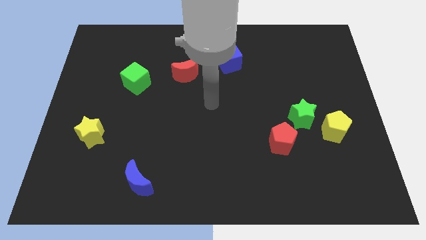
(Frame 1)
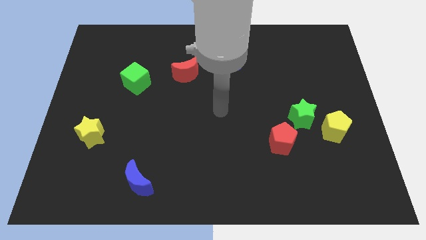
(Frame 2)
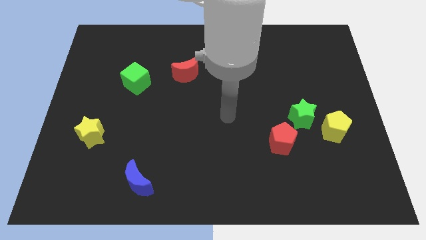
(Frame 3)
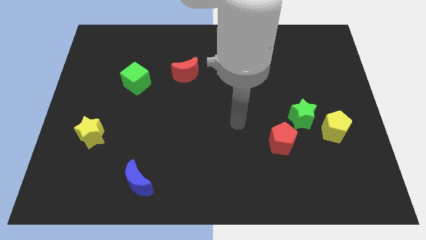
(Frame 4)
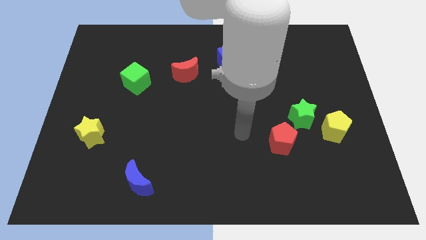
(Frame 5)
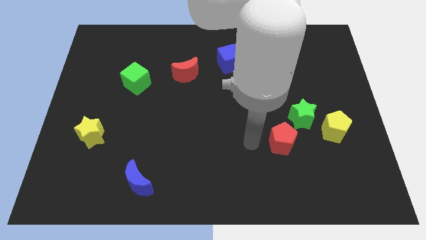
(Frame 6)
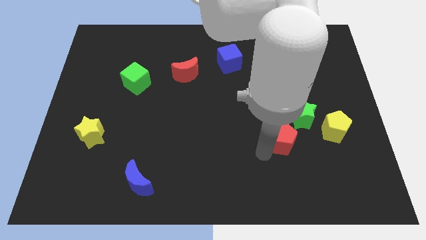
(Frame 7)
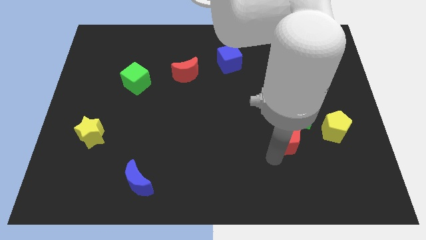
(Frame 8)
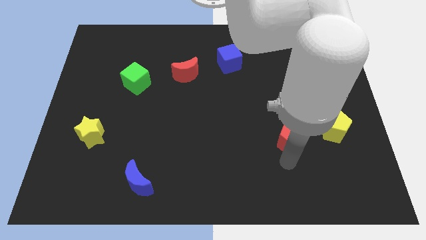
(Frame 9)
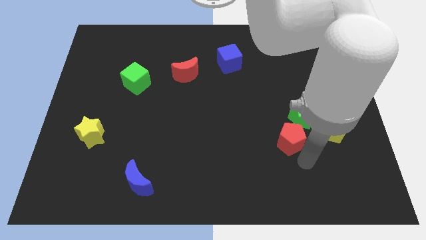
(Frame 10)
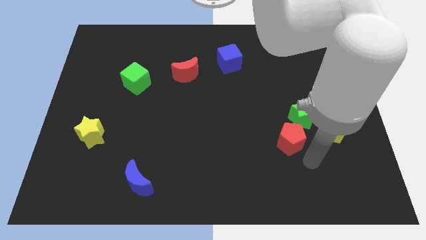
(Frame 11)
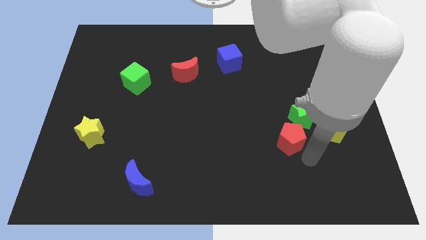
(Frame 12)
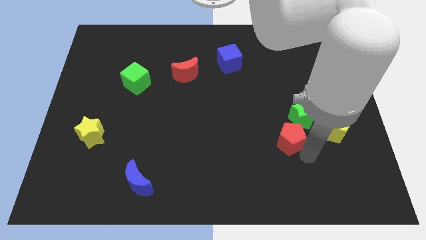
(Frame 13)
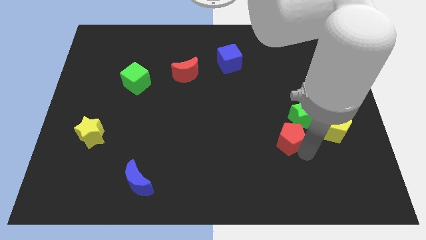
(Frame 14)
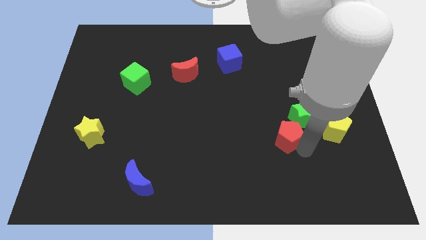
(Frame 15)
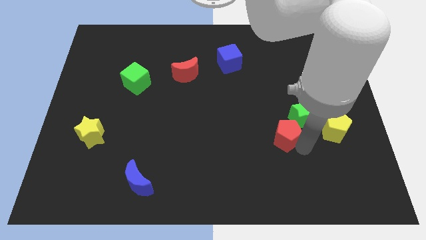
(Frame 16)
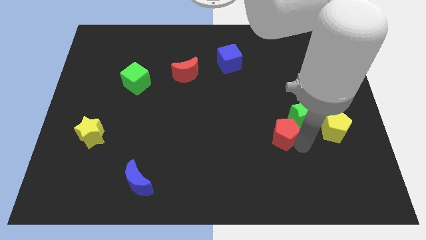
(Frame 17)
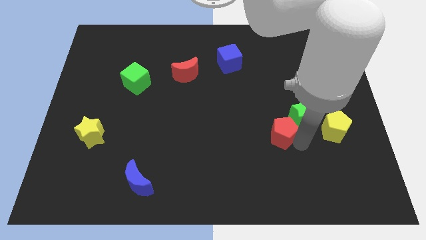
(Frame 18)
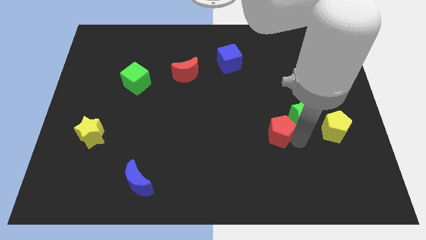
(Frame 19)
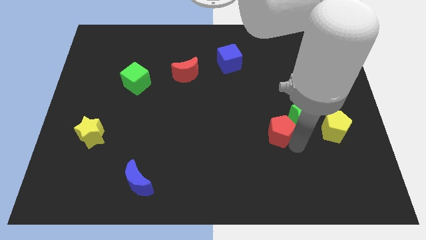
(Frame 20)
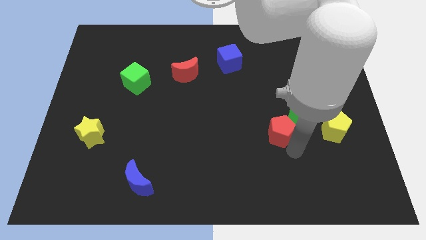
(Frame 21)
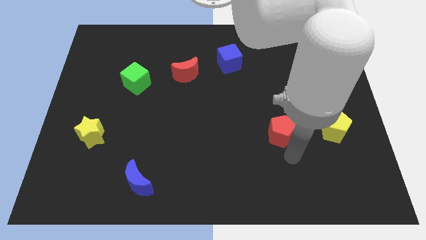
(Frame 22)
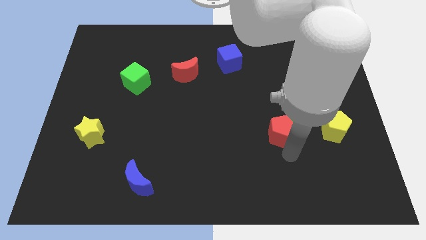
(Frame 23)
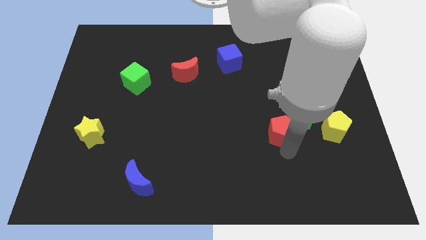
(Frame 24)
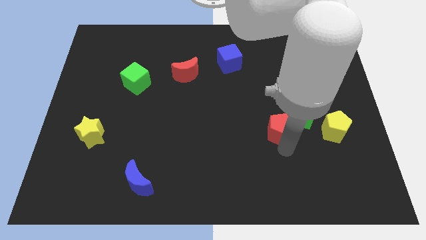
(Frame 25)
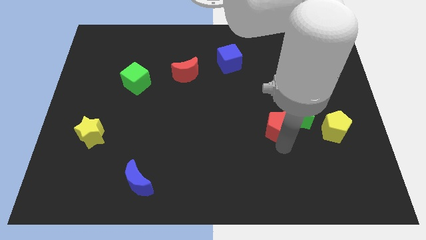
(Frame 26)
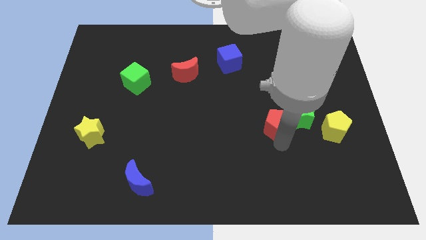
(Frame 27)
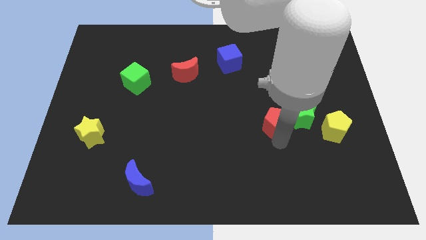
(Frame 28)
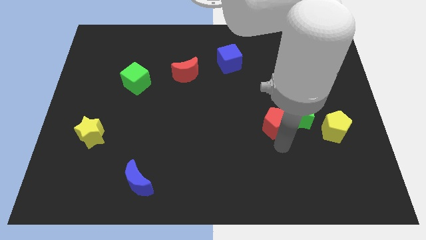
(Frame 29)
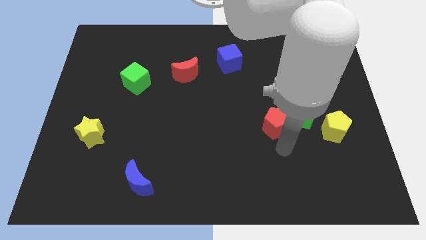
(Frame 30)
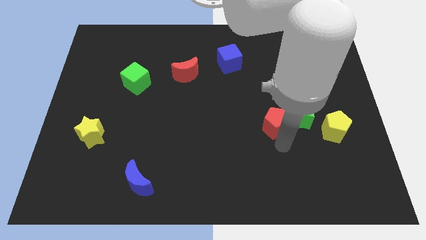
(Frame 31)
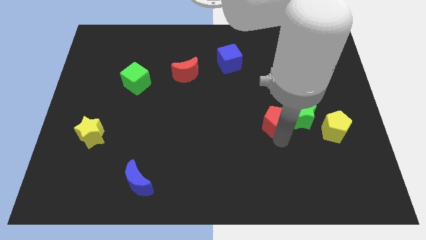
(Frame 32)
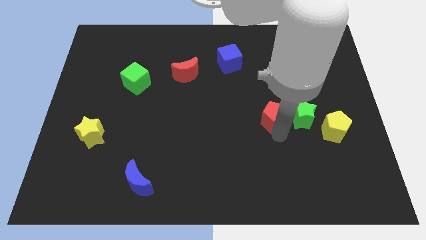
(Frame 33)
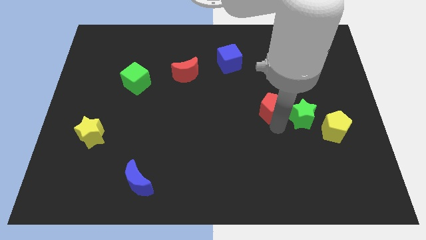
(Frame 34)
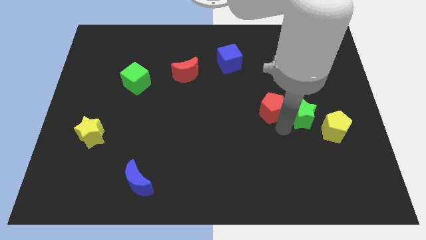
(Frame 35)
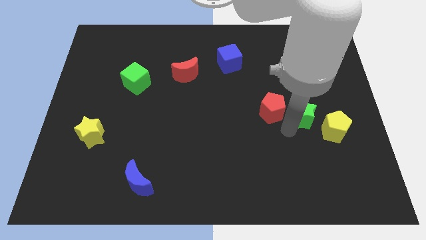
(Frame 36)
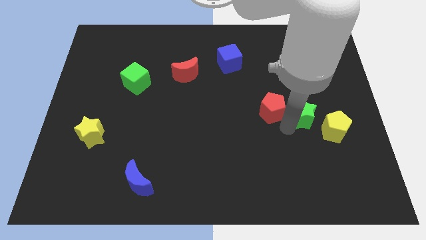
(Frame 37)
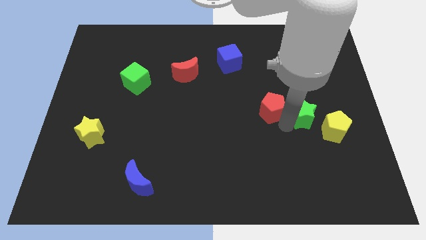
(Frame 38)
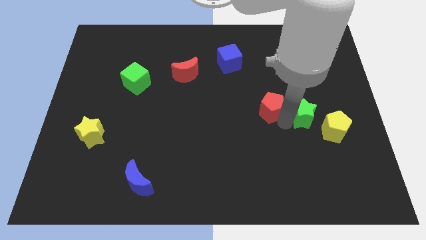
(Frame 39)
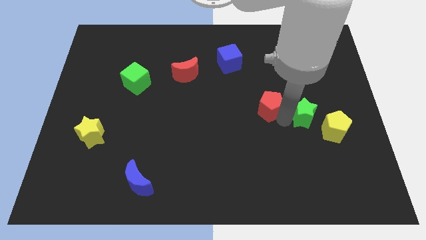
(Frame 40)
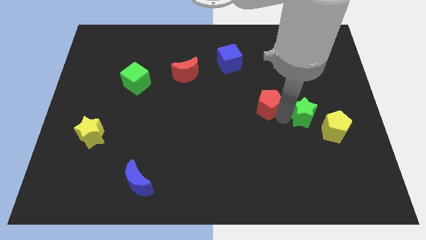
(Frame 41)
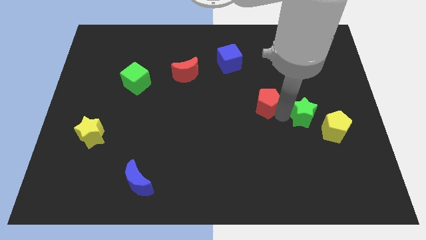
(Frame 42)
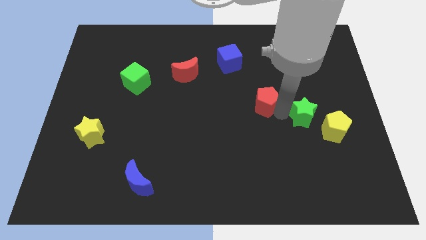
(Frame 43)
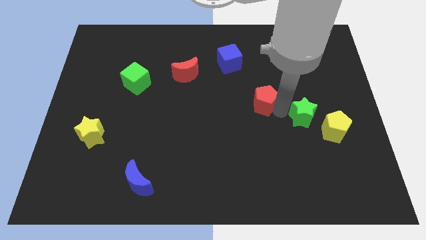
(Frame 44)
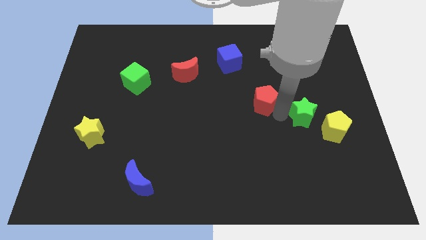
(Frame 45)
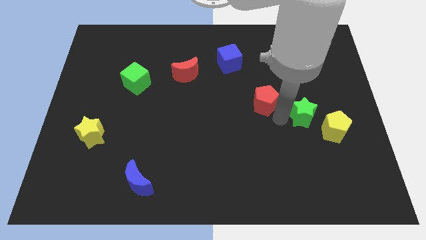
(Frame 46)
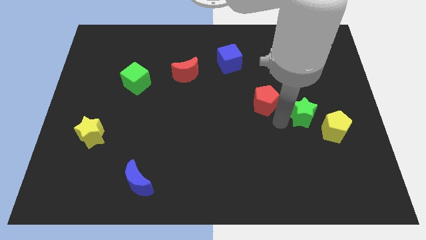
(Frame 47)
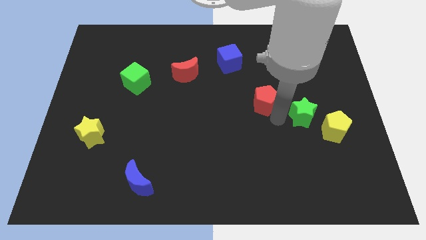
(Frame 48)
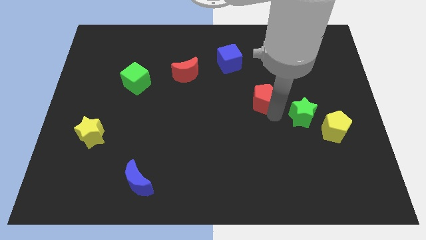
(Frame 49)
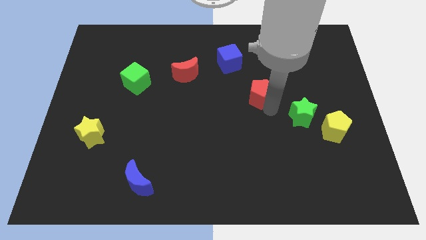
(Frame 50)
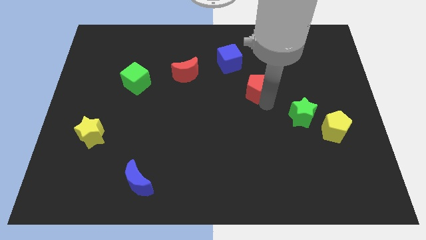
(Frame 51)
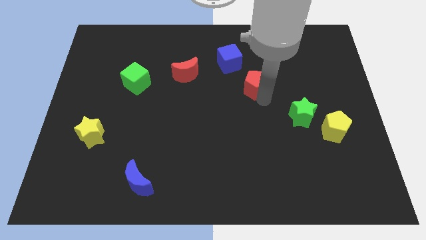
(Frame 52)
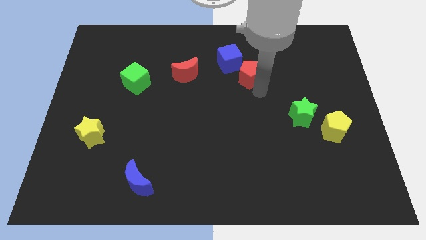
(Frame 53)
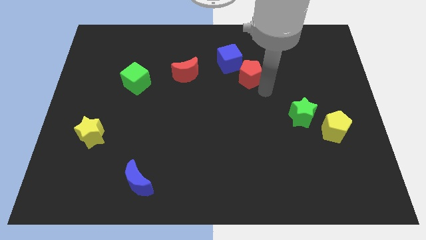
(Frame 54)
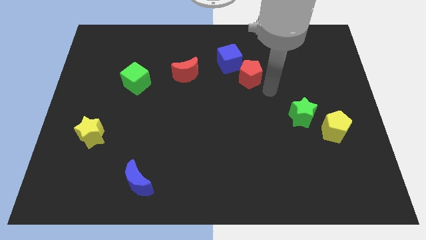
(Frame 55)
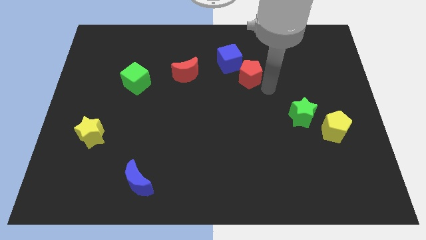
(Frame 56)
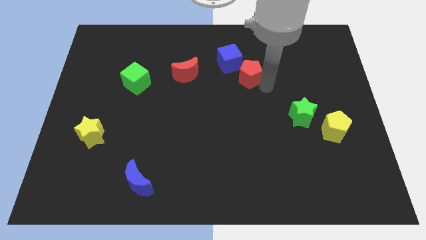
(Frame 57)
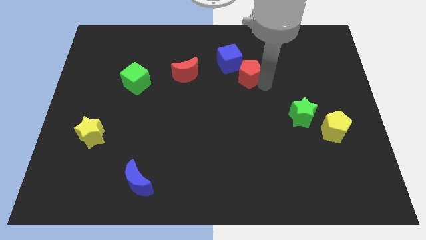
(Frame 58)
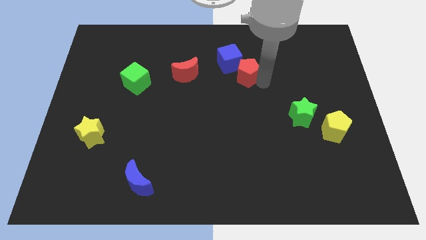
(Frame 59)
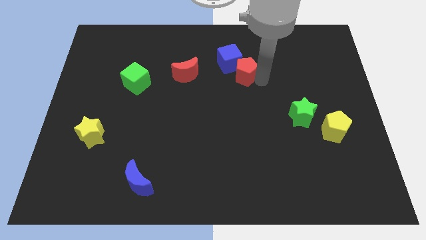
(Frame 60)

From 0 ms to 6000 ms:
slide the red pentagon next to the blue cube

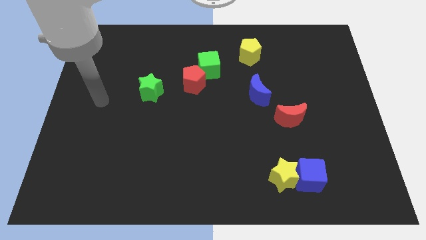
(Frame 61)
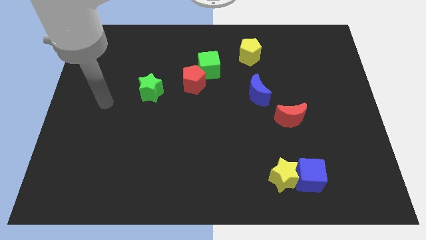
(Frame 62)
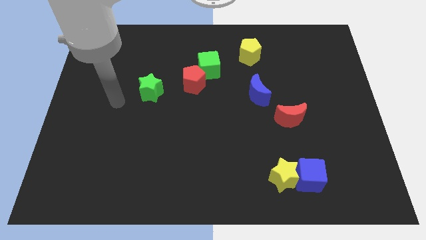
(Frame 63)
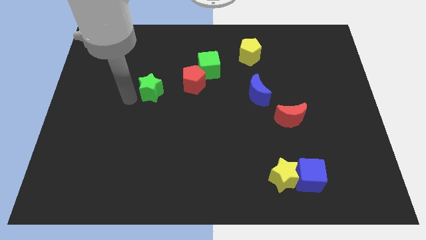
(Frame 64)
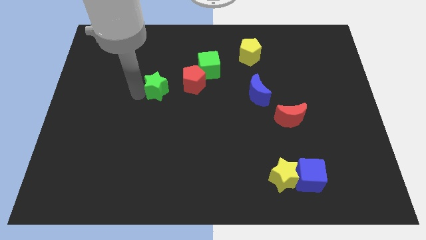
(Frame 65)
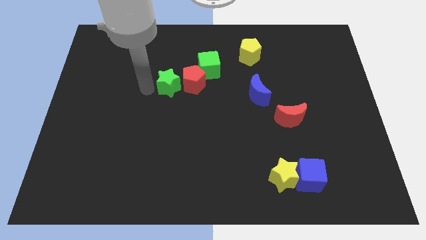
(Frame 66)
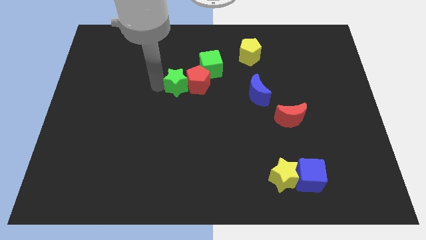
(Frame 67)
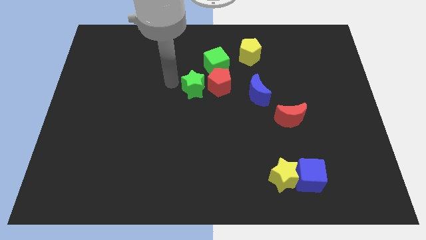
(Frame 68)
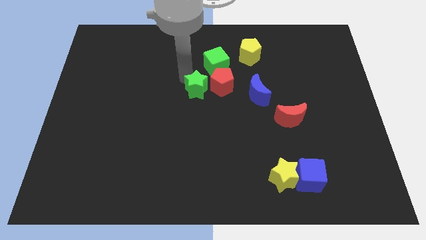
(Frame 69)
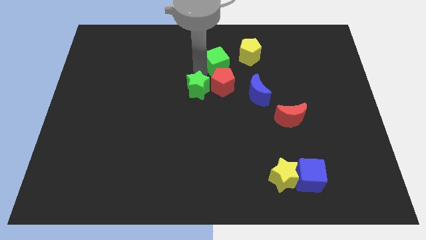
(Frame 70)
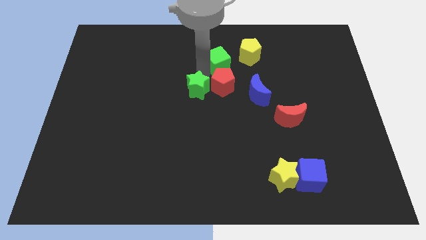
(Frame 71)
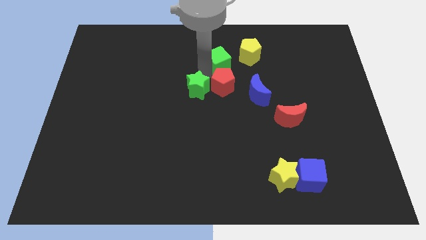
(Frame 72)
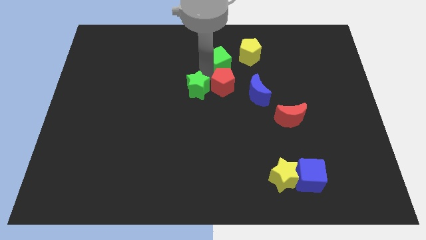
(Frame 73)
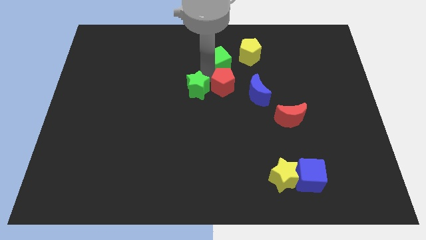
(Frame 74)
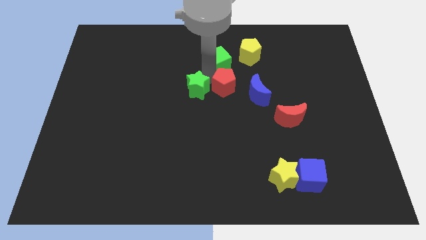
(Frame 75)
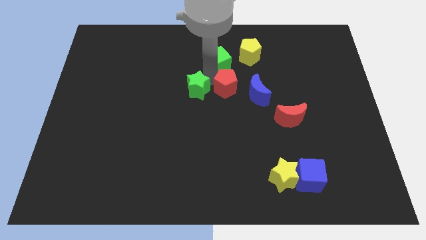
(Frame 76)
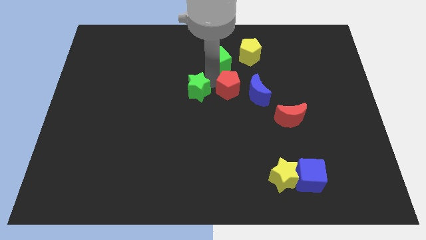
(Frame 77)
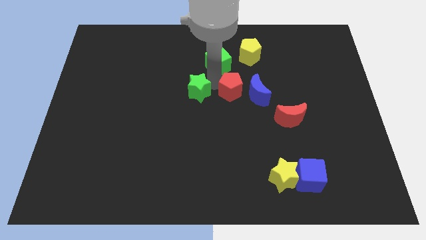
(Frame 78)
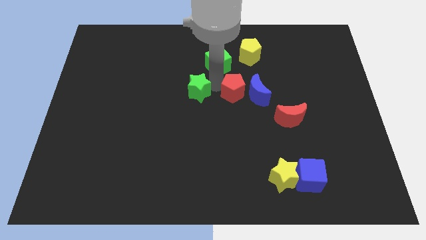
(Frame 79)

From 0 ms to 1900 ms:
move the red pentagon close to the blue moon
